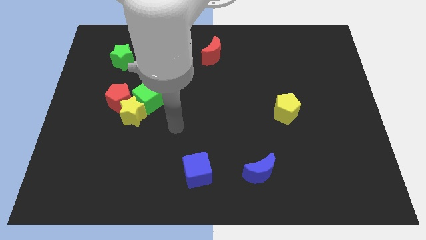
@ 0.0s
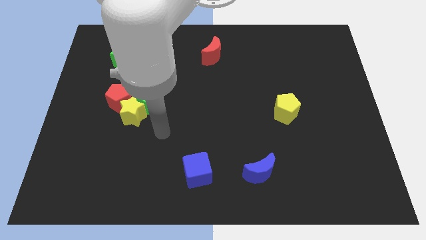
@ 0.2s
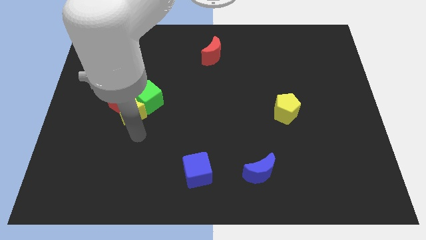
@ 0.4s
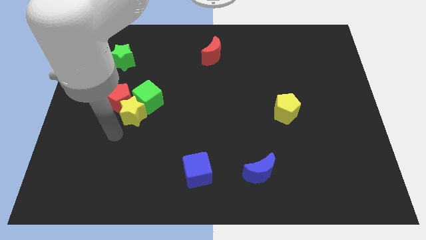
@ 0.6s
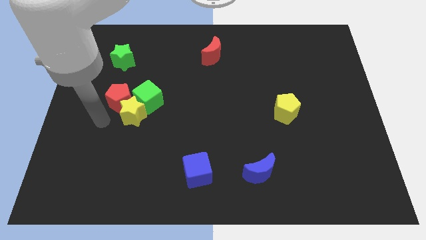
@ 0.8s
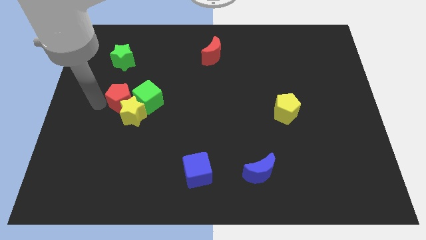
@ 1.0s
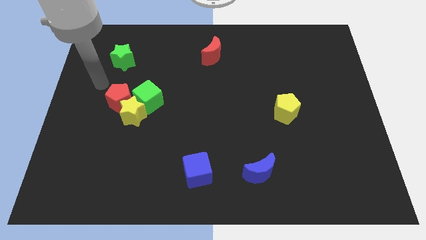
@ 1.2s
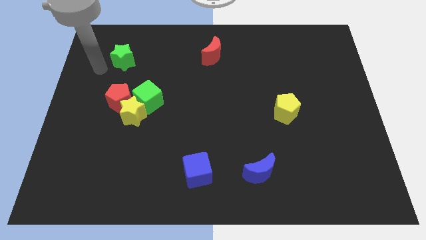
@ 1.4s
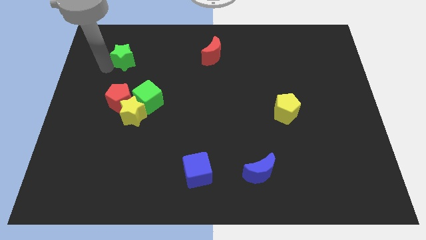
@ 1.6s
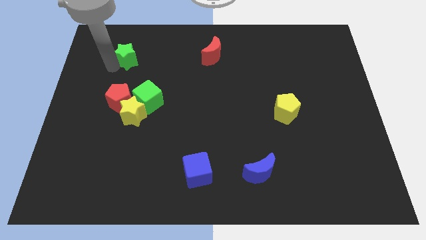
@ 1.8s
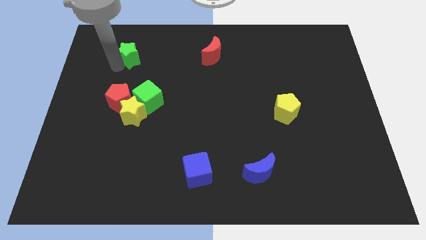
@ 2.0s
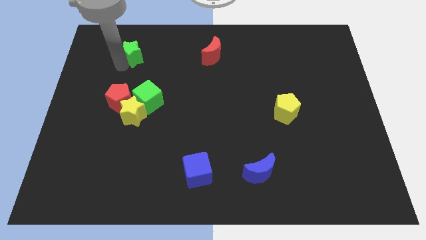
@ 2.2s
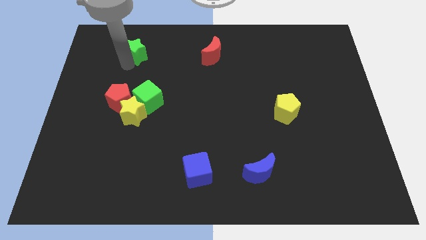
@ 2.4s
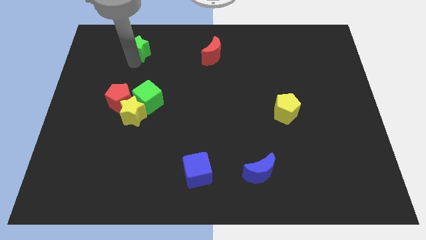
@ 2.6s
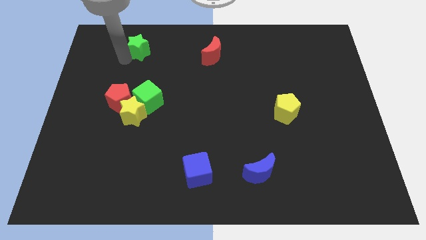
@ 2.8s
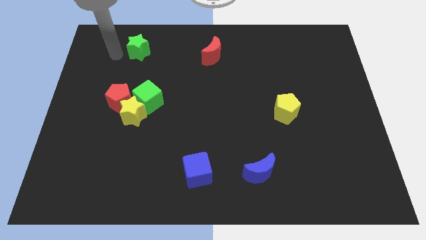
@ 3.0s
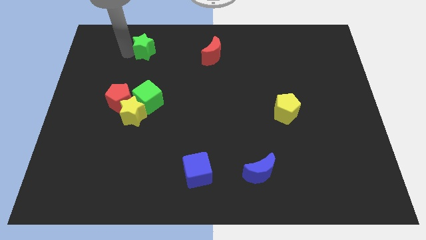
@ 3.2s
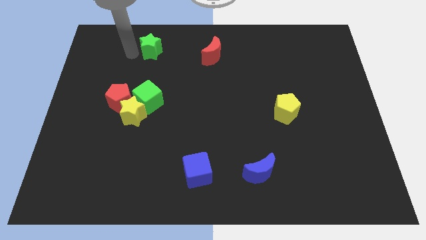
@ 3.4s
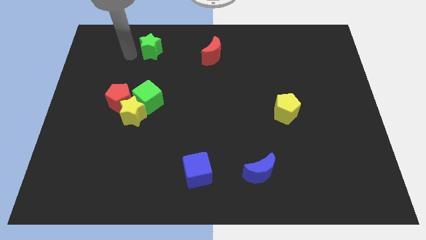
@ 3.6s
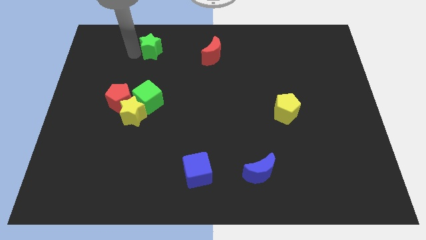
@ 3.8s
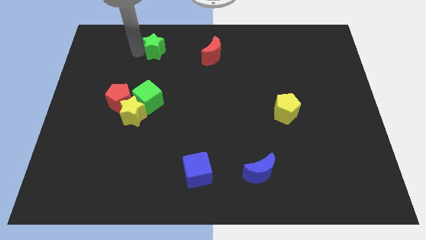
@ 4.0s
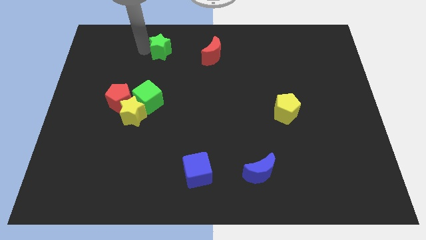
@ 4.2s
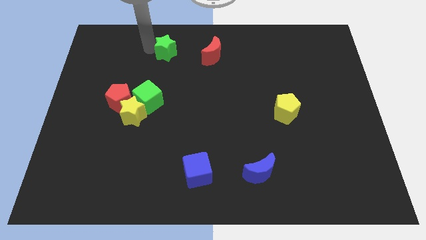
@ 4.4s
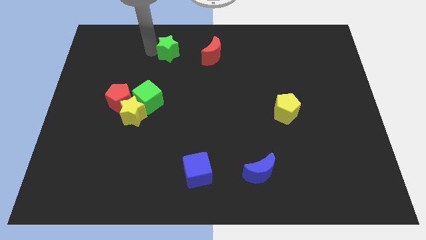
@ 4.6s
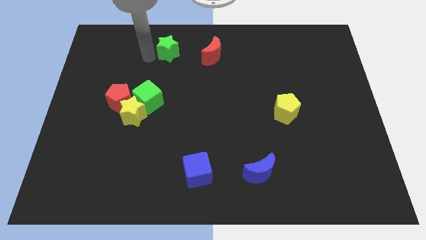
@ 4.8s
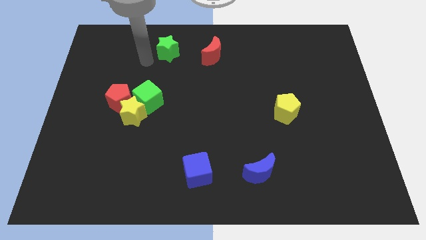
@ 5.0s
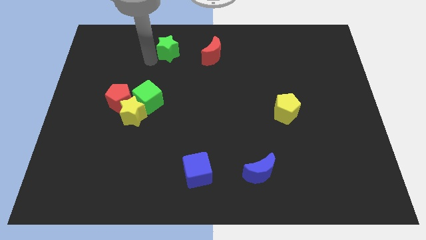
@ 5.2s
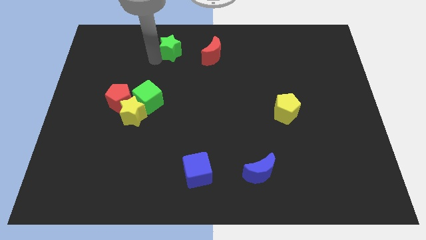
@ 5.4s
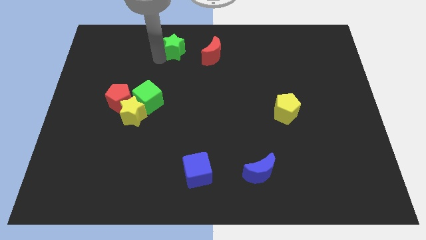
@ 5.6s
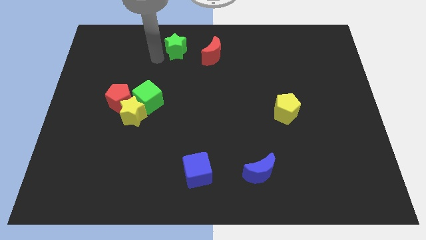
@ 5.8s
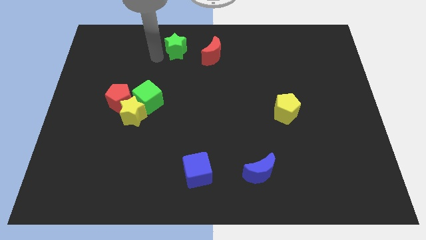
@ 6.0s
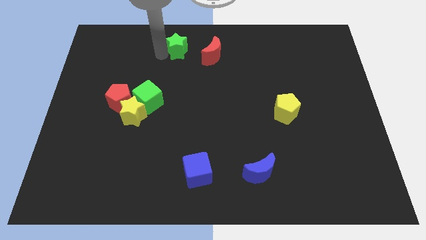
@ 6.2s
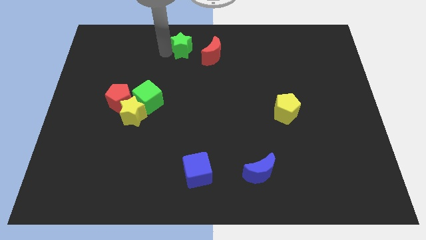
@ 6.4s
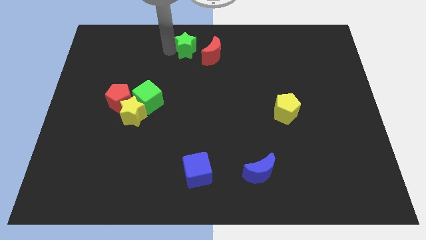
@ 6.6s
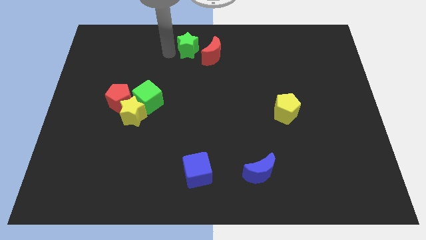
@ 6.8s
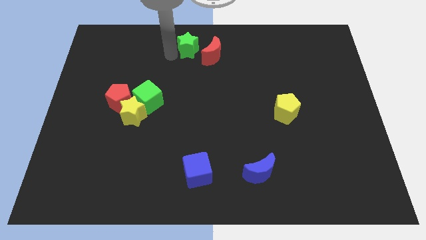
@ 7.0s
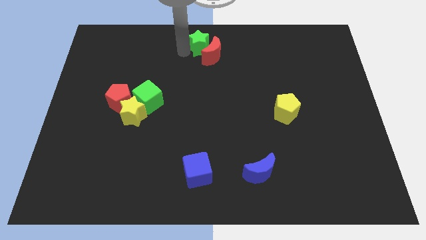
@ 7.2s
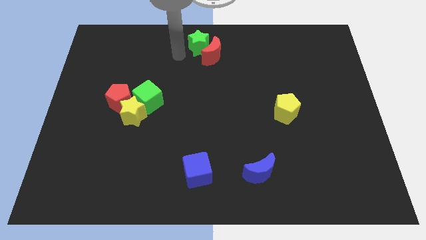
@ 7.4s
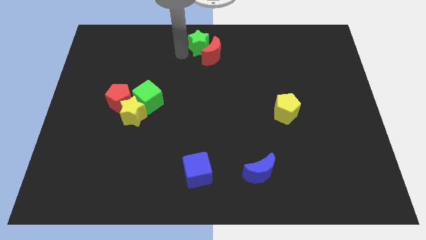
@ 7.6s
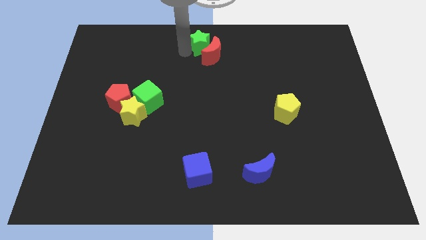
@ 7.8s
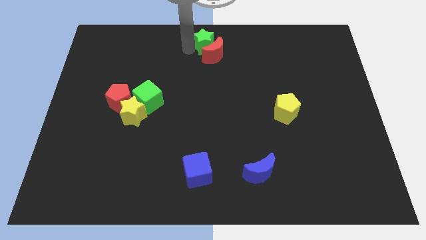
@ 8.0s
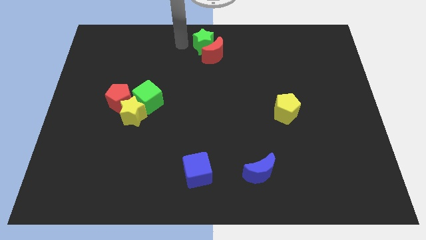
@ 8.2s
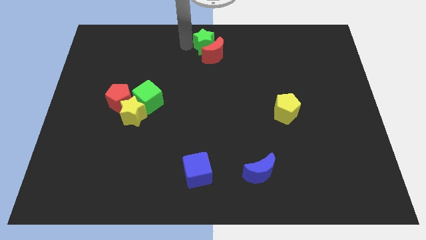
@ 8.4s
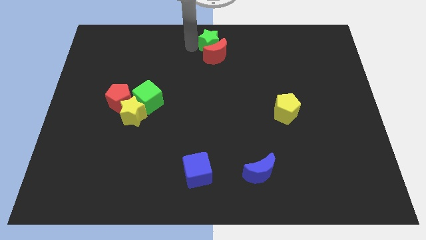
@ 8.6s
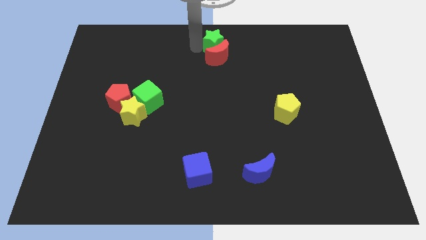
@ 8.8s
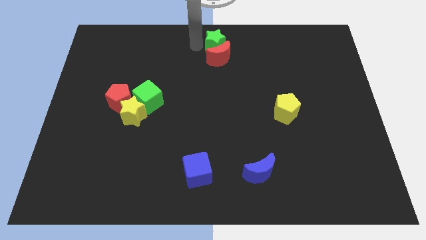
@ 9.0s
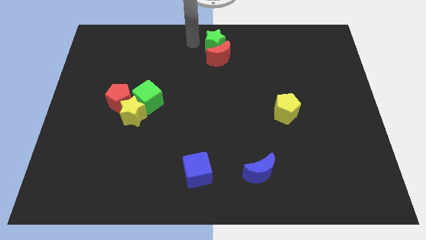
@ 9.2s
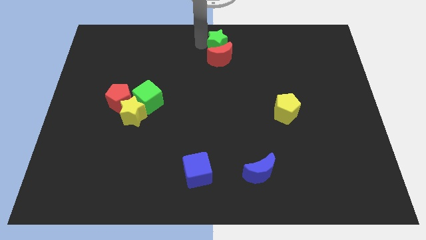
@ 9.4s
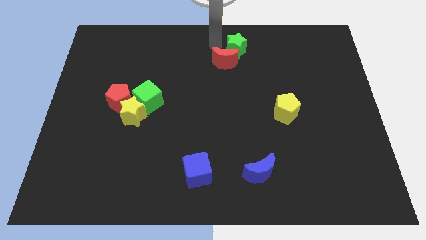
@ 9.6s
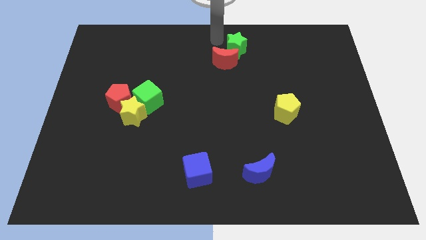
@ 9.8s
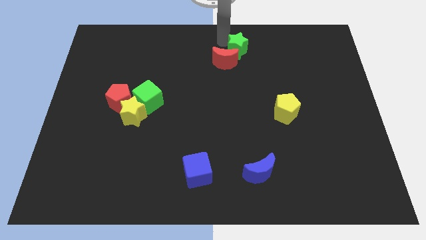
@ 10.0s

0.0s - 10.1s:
put the green star just right of the red moon

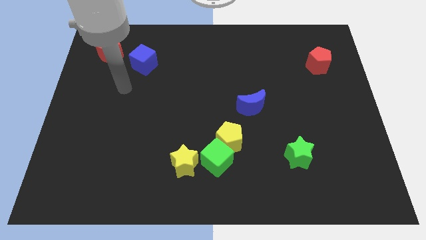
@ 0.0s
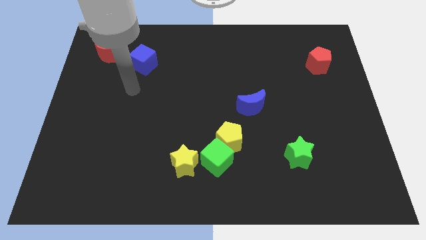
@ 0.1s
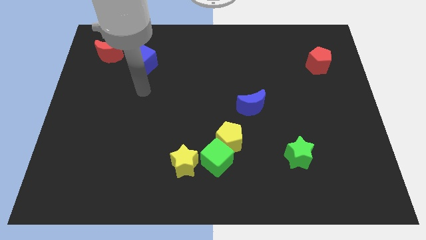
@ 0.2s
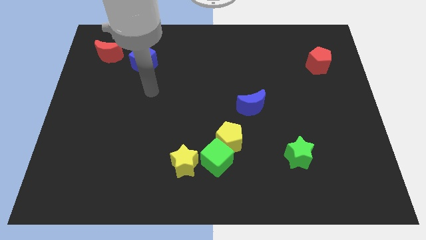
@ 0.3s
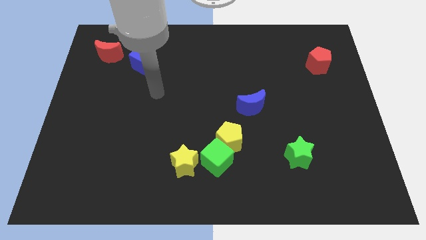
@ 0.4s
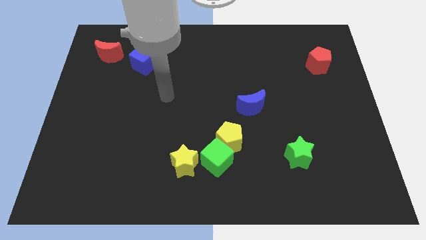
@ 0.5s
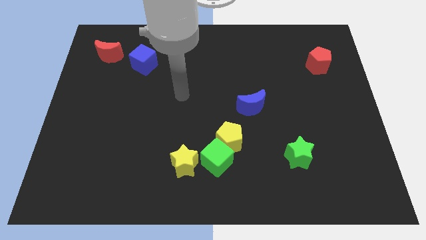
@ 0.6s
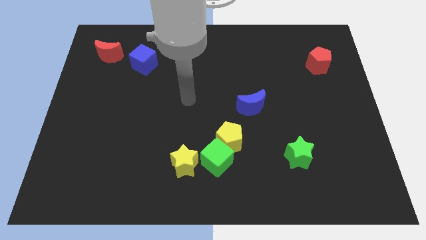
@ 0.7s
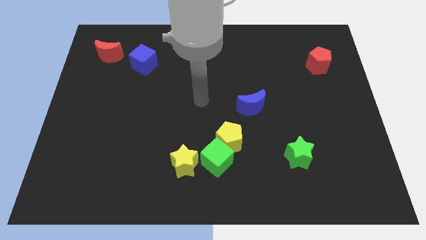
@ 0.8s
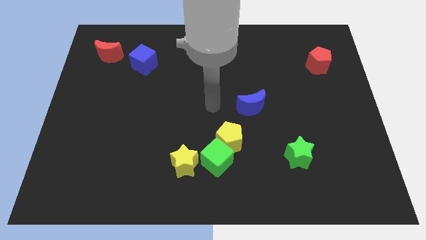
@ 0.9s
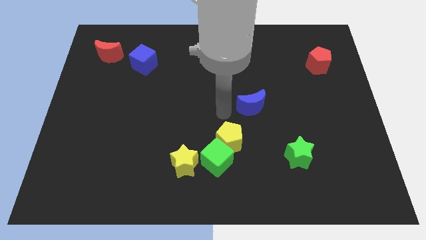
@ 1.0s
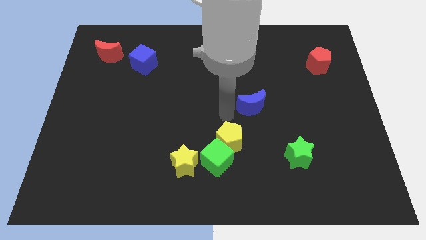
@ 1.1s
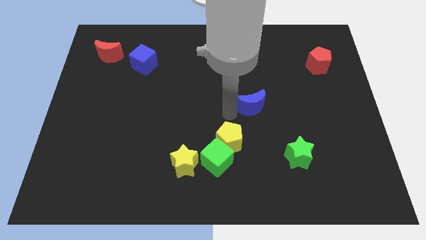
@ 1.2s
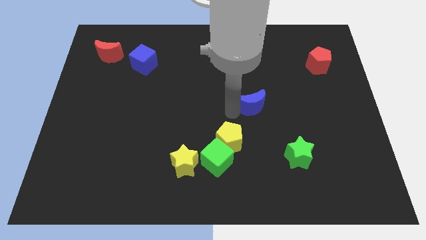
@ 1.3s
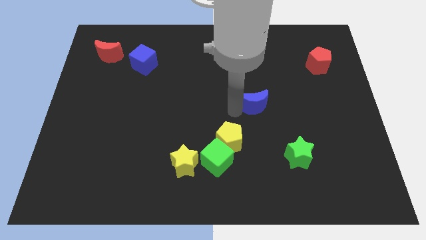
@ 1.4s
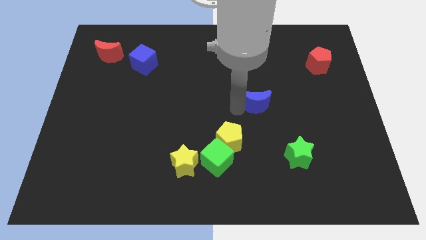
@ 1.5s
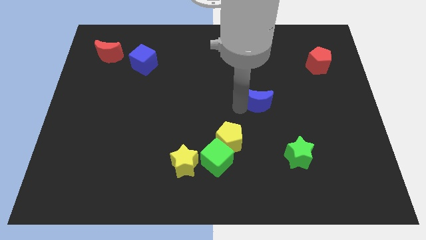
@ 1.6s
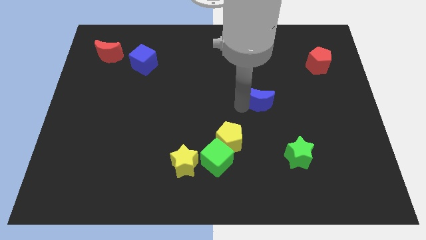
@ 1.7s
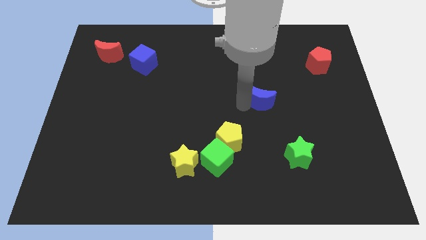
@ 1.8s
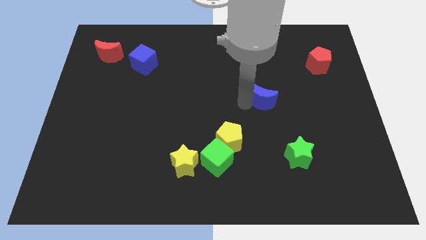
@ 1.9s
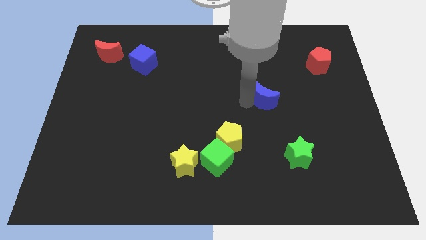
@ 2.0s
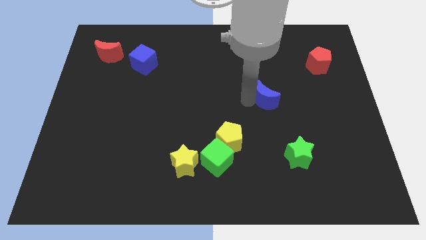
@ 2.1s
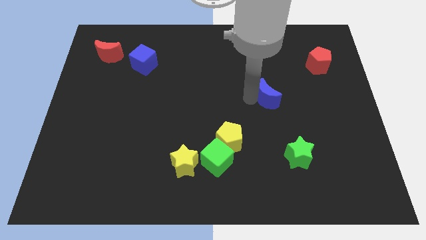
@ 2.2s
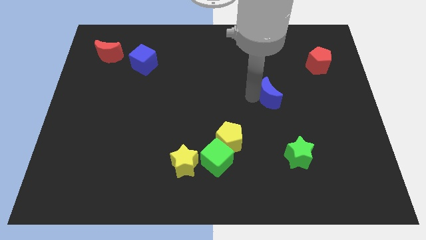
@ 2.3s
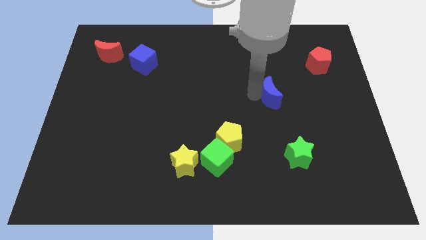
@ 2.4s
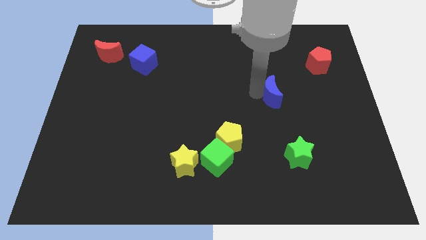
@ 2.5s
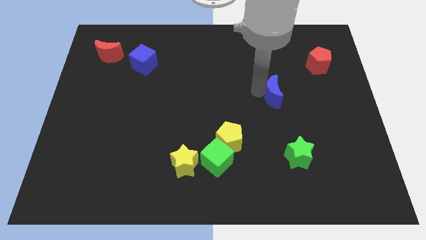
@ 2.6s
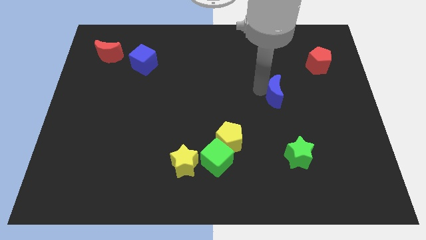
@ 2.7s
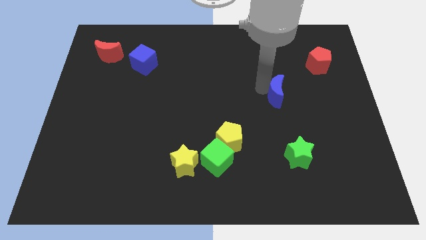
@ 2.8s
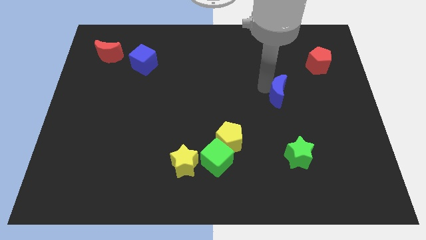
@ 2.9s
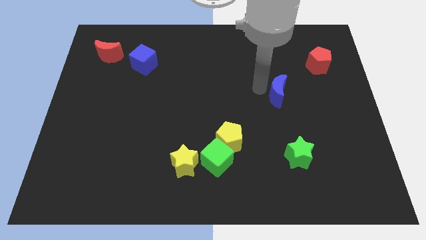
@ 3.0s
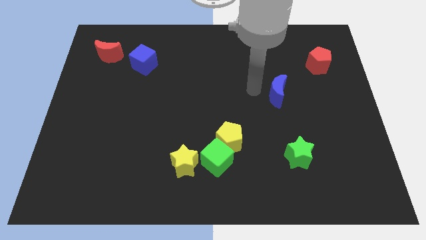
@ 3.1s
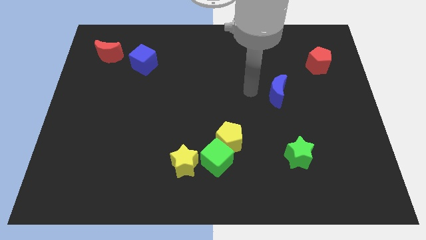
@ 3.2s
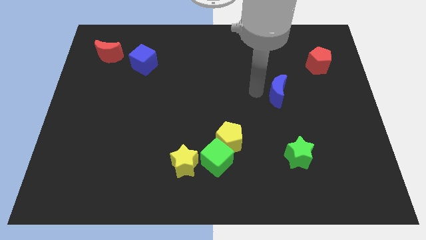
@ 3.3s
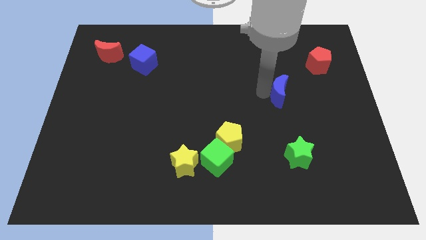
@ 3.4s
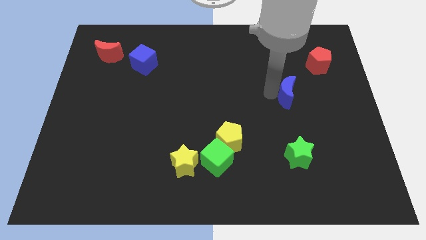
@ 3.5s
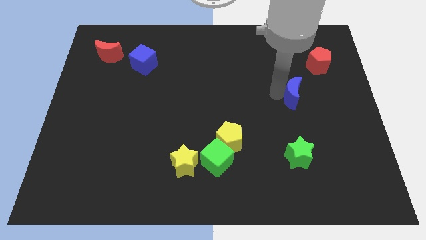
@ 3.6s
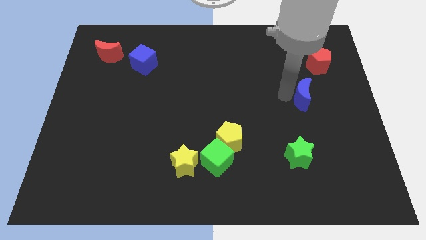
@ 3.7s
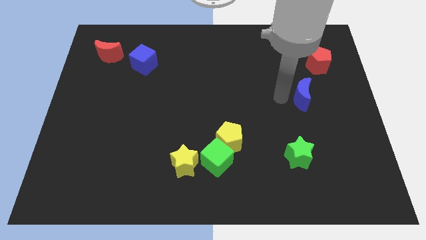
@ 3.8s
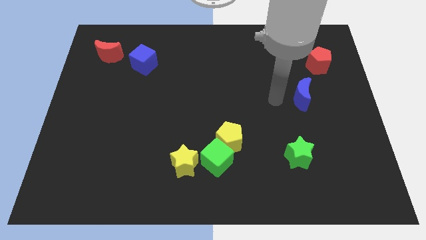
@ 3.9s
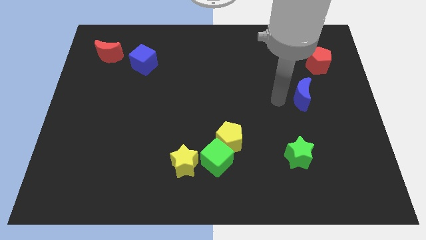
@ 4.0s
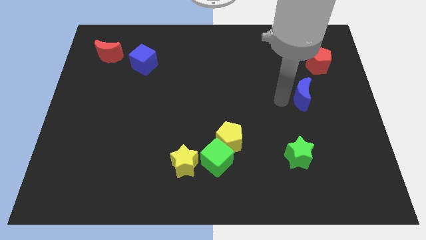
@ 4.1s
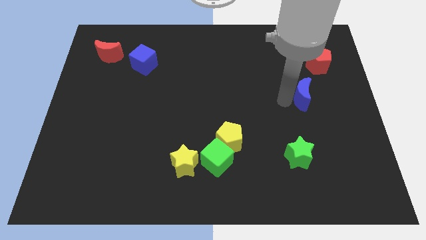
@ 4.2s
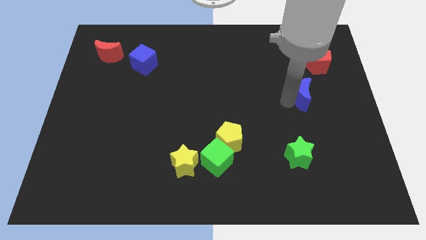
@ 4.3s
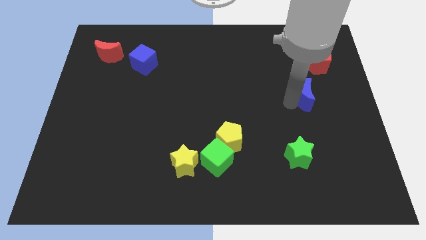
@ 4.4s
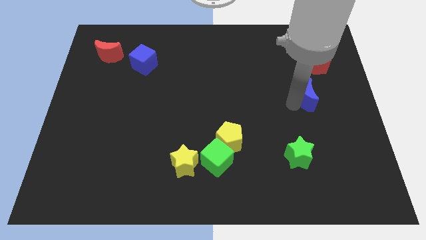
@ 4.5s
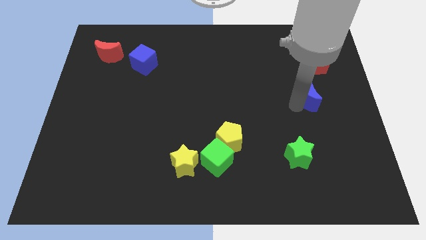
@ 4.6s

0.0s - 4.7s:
move the blue moon below the red pentagon
